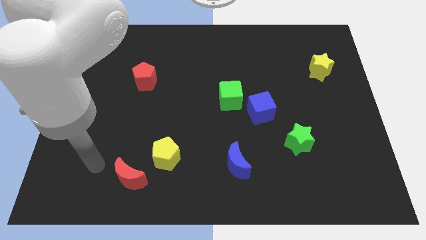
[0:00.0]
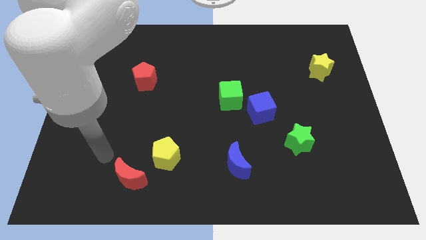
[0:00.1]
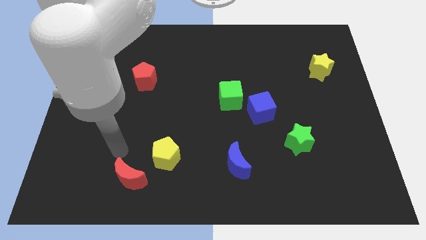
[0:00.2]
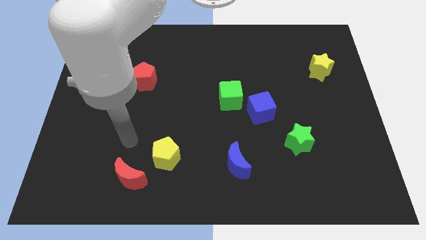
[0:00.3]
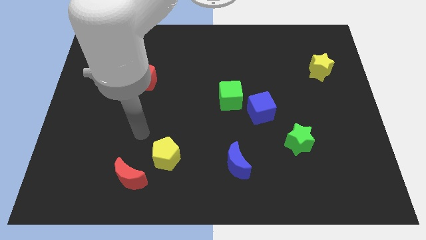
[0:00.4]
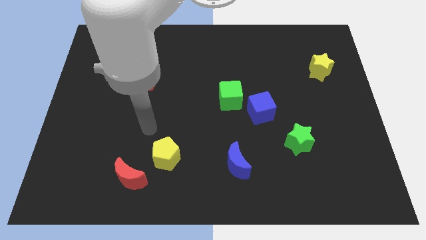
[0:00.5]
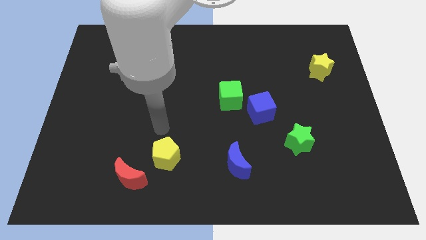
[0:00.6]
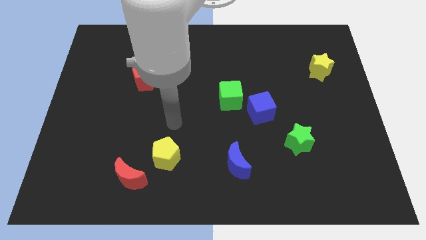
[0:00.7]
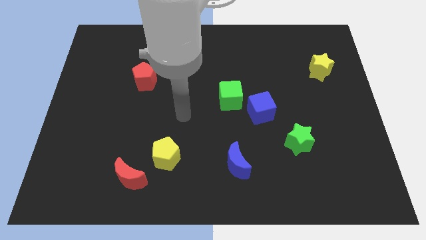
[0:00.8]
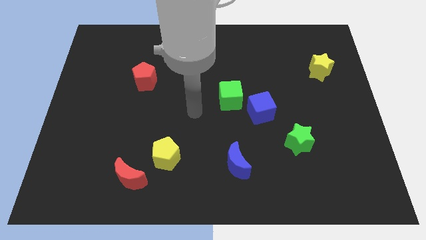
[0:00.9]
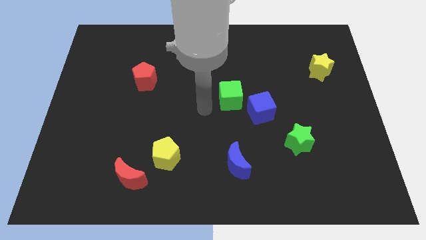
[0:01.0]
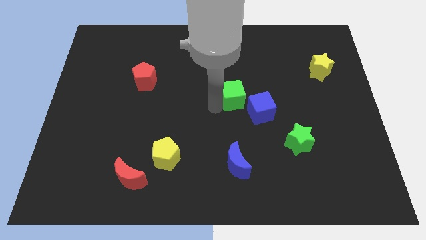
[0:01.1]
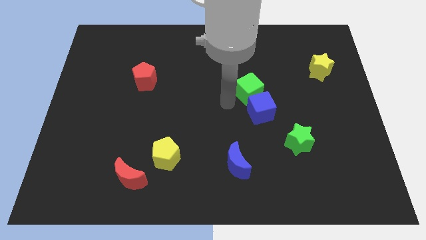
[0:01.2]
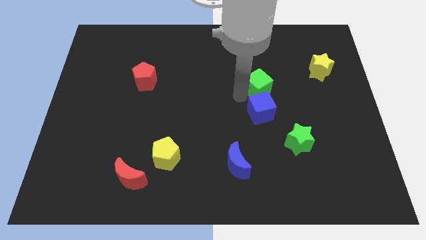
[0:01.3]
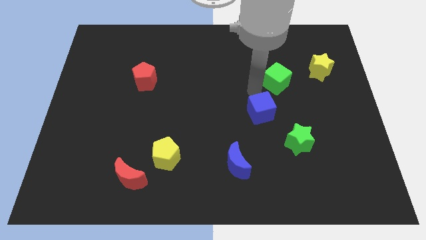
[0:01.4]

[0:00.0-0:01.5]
separate the blue cube from the green cube

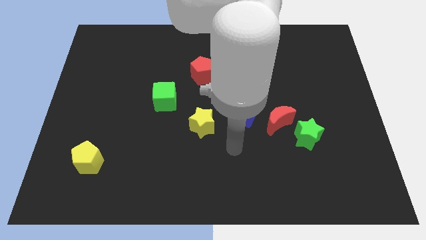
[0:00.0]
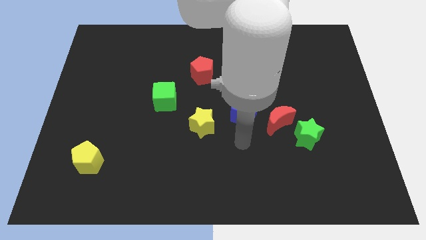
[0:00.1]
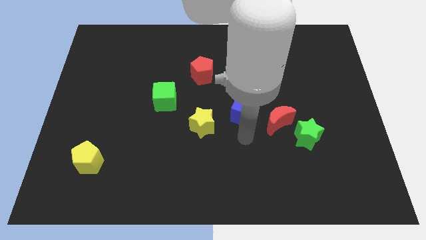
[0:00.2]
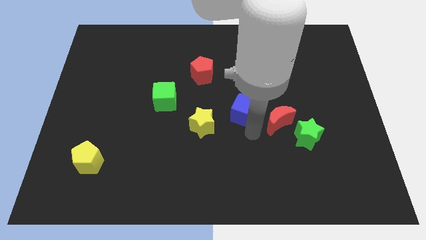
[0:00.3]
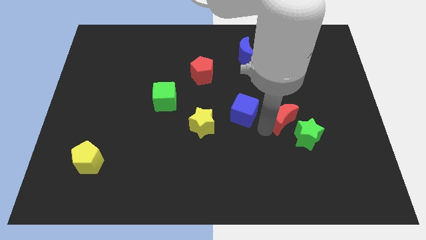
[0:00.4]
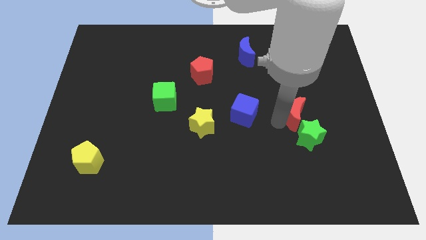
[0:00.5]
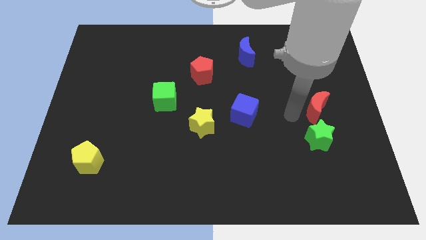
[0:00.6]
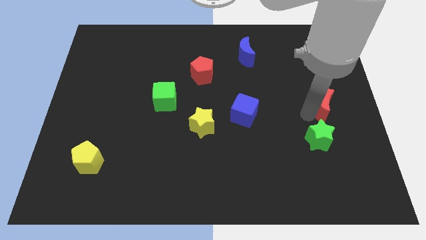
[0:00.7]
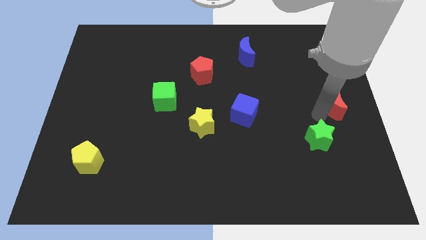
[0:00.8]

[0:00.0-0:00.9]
move the green star away from the red moon

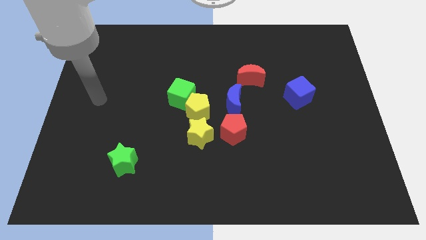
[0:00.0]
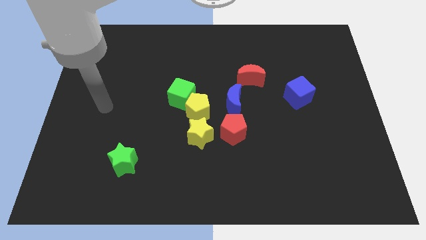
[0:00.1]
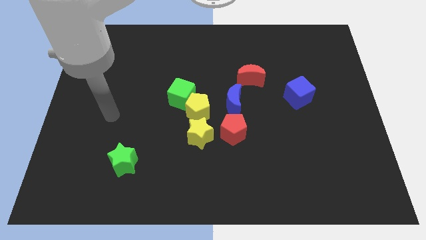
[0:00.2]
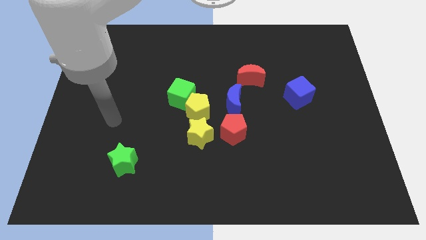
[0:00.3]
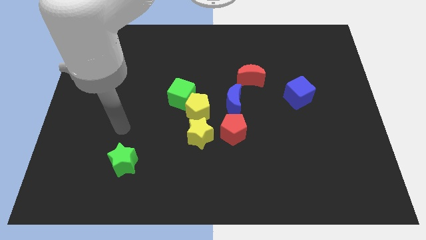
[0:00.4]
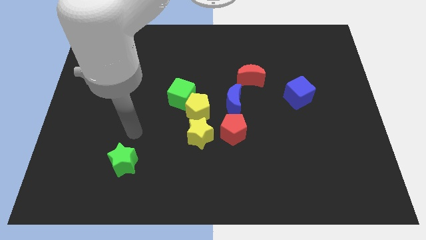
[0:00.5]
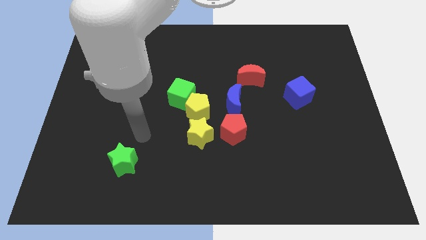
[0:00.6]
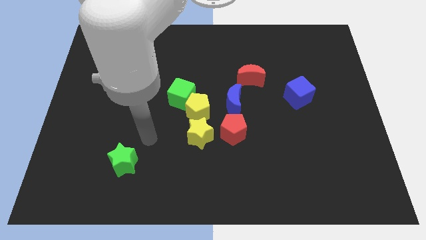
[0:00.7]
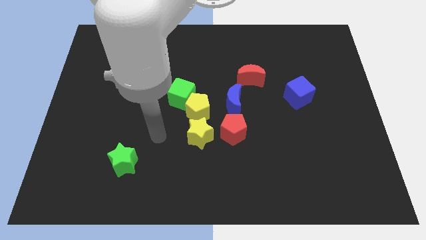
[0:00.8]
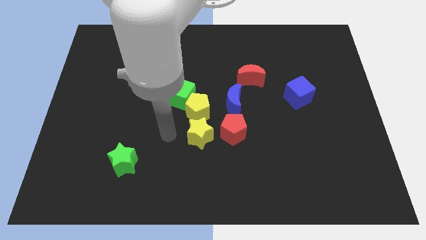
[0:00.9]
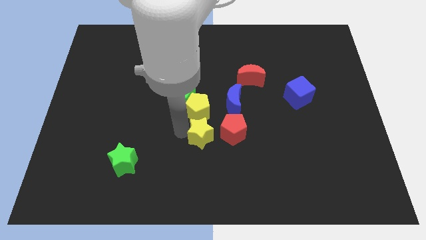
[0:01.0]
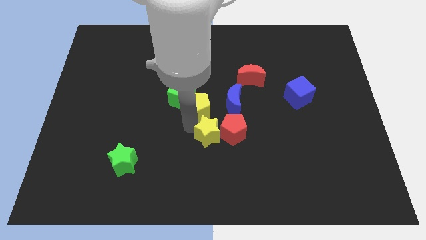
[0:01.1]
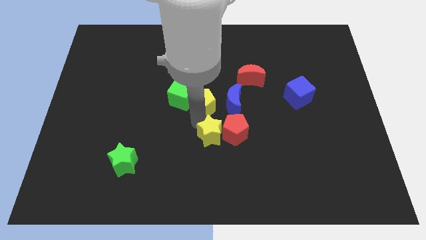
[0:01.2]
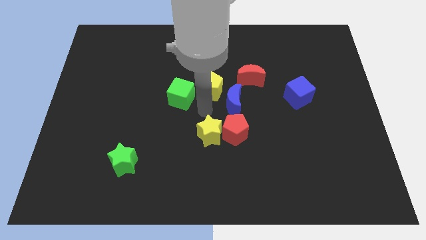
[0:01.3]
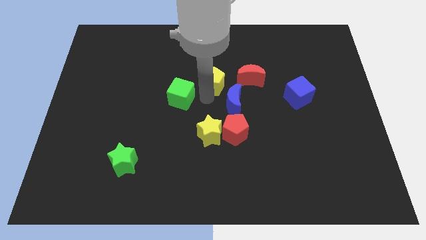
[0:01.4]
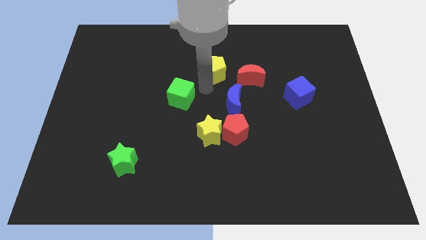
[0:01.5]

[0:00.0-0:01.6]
separate the green cube from the yellow pentagon

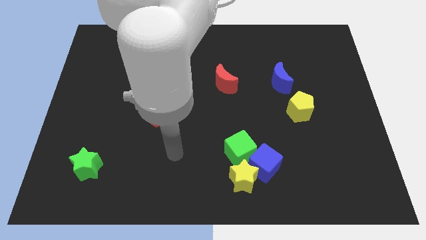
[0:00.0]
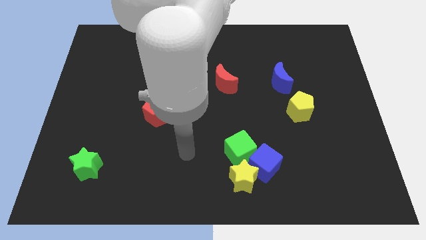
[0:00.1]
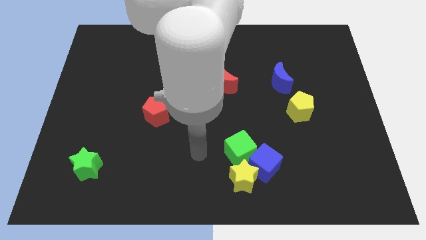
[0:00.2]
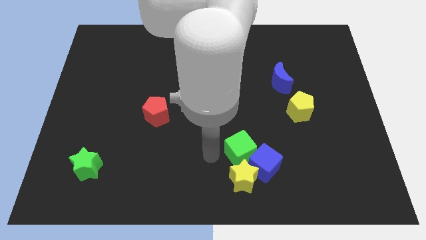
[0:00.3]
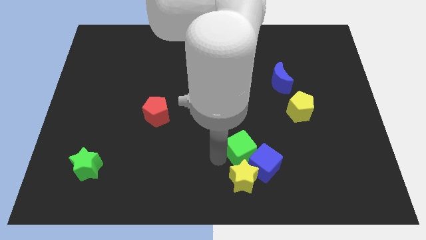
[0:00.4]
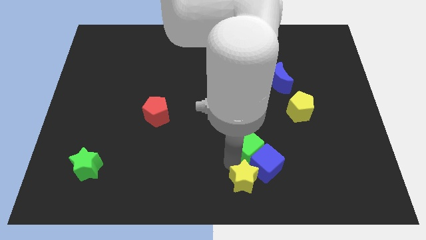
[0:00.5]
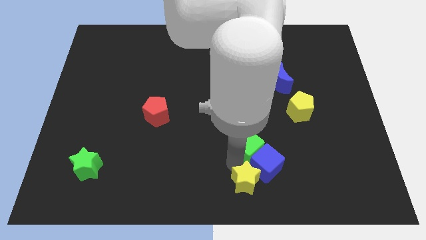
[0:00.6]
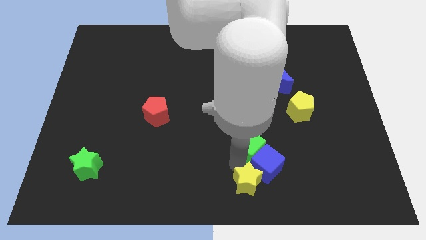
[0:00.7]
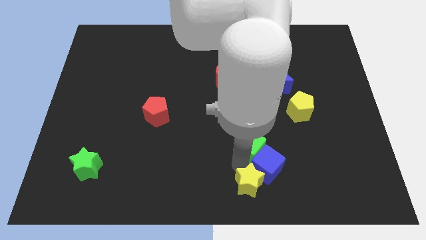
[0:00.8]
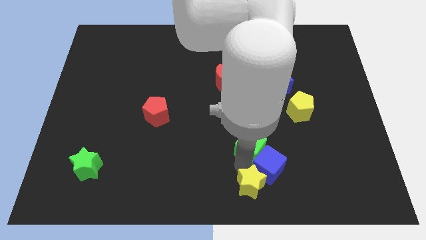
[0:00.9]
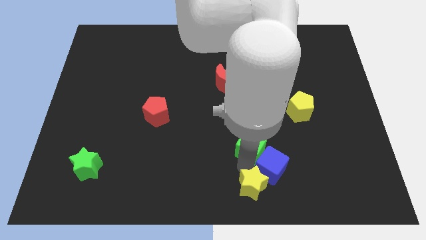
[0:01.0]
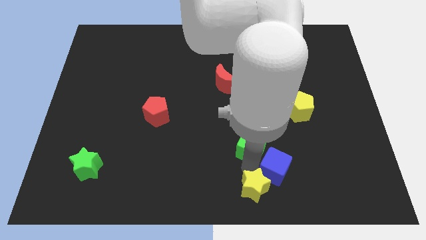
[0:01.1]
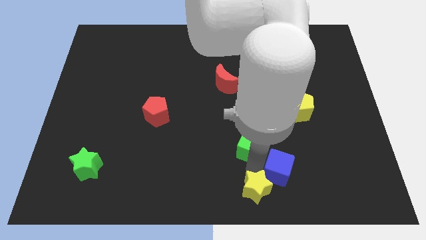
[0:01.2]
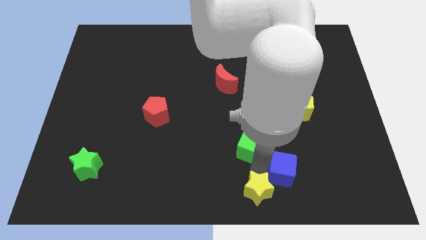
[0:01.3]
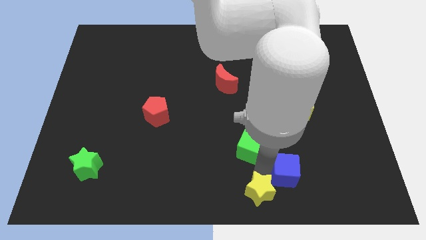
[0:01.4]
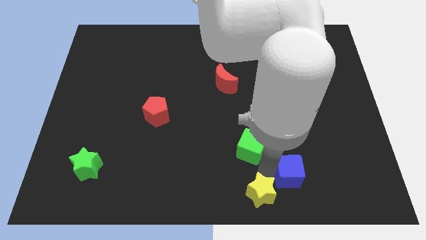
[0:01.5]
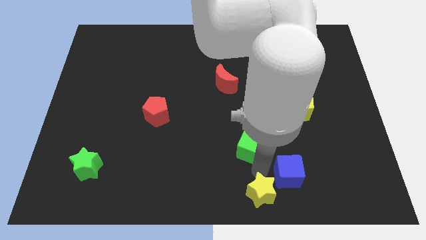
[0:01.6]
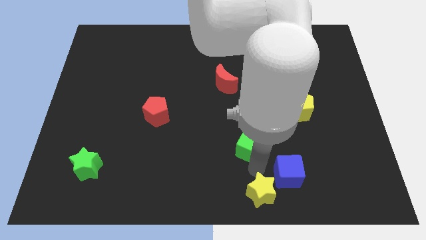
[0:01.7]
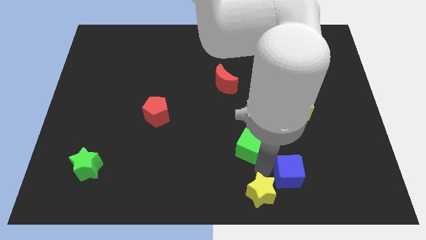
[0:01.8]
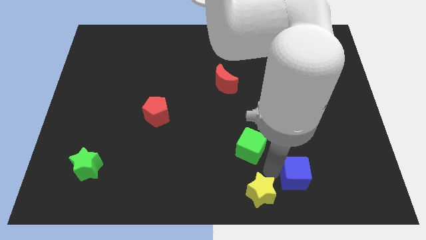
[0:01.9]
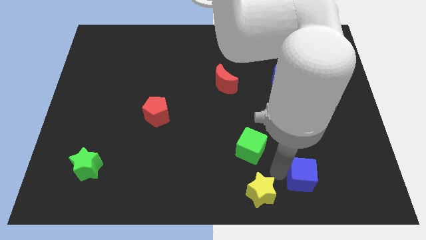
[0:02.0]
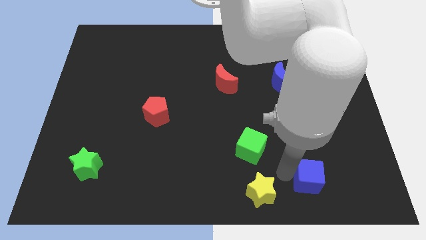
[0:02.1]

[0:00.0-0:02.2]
move the blue cube away from the yellow star and green cube

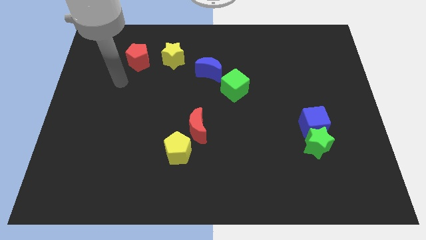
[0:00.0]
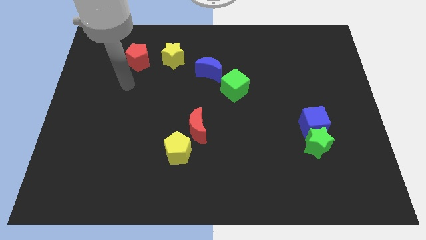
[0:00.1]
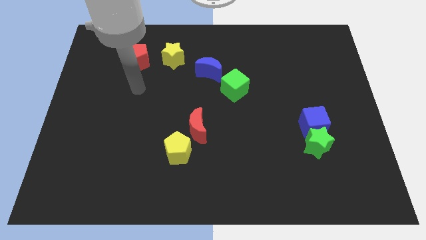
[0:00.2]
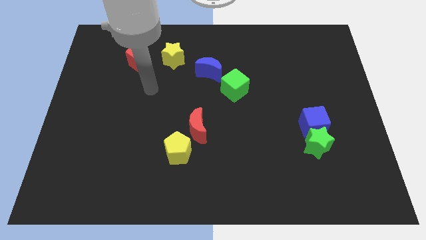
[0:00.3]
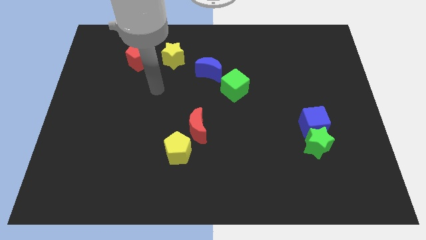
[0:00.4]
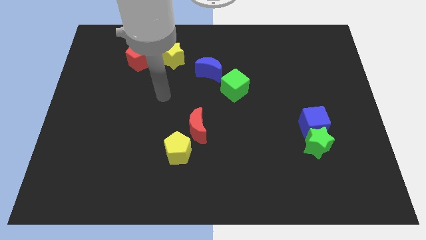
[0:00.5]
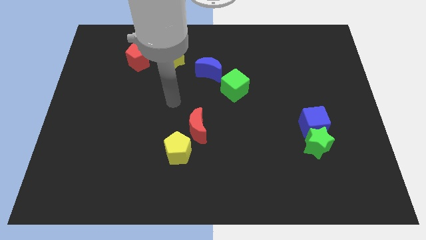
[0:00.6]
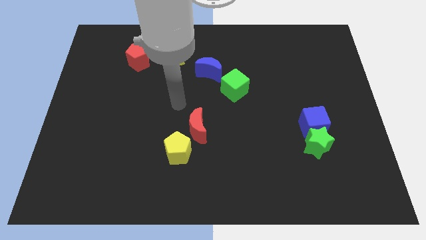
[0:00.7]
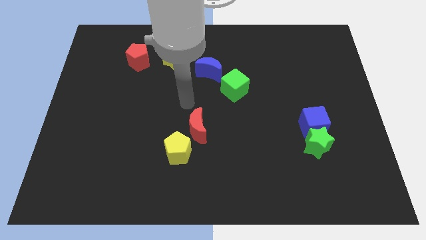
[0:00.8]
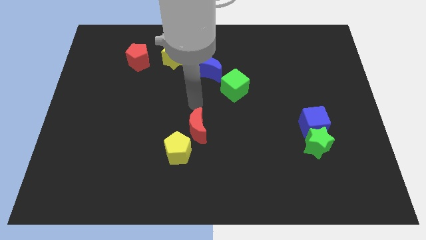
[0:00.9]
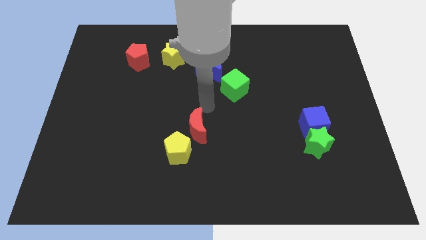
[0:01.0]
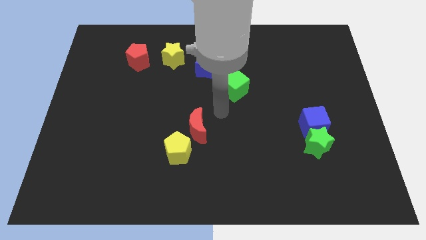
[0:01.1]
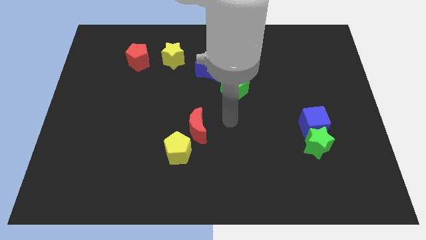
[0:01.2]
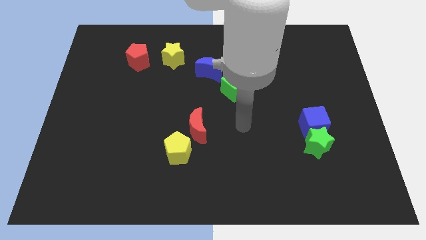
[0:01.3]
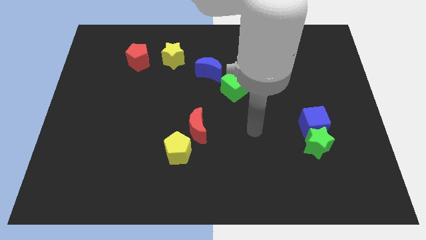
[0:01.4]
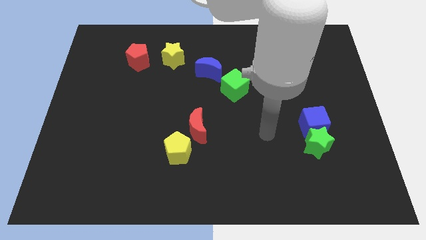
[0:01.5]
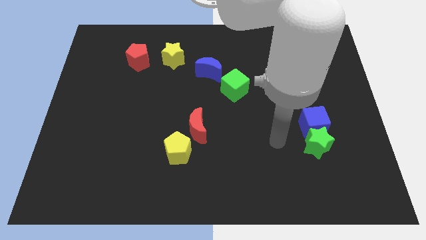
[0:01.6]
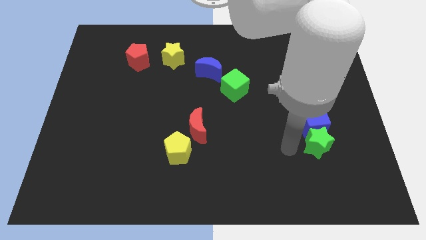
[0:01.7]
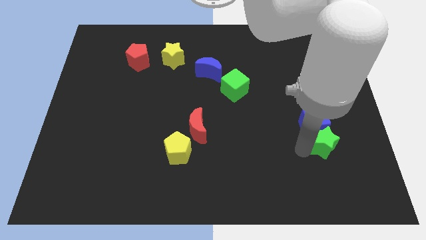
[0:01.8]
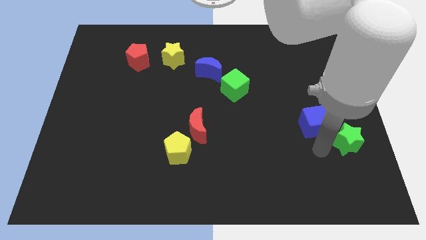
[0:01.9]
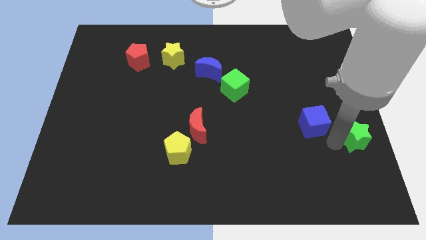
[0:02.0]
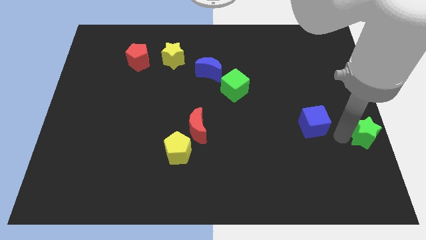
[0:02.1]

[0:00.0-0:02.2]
pull the blue cube apart from the green star

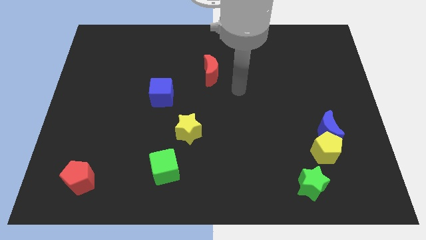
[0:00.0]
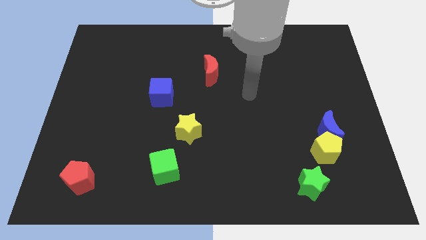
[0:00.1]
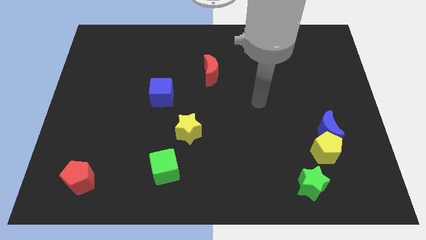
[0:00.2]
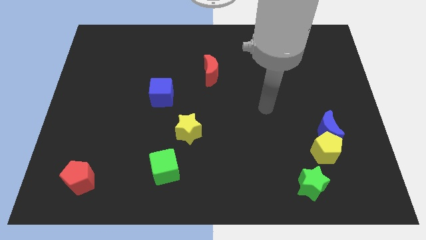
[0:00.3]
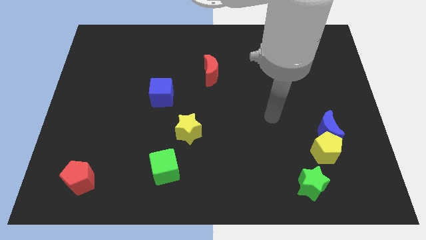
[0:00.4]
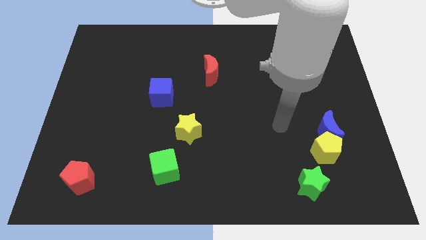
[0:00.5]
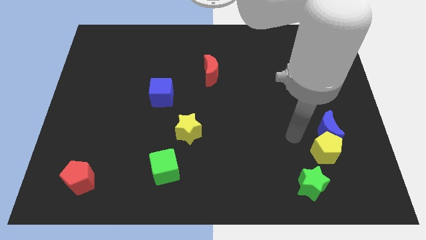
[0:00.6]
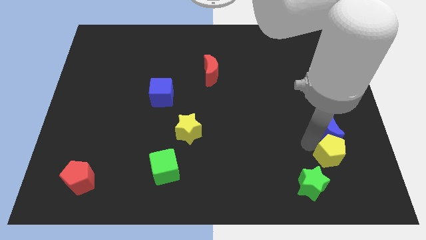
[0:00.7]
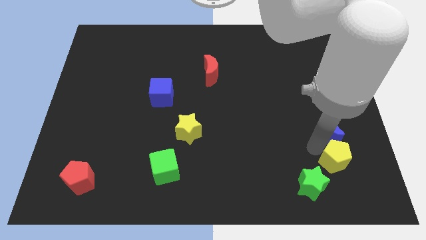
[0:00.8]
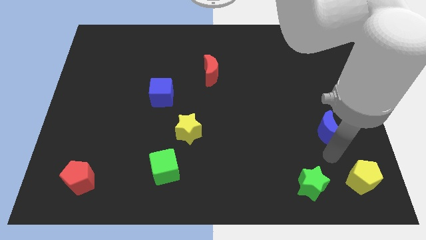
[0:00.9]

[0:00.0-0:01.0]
pull the blue moon apart from the yellow pentagon
